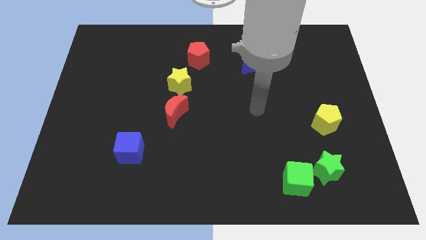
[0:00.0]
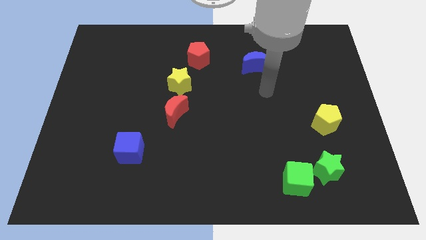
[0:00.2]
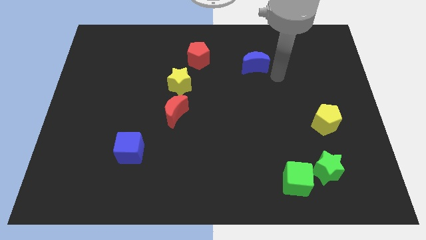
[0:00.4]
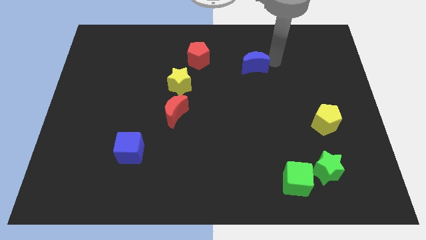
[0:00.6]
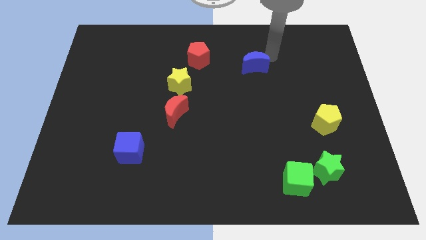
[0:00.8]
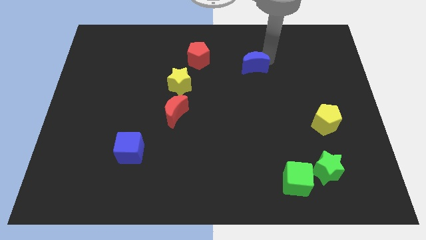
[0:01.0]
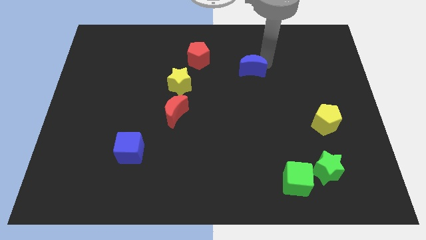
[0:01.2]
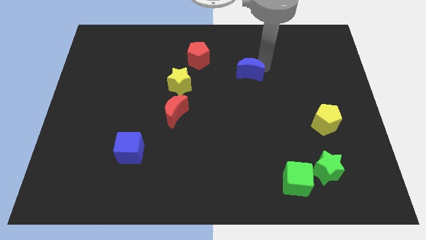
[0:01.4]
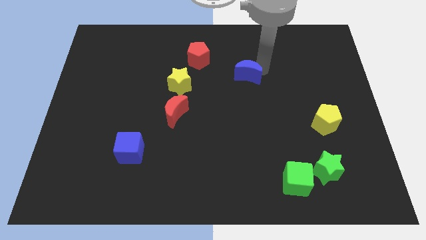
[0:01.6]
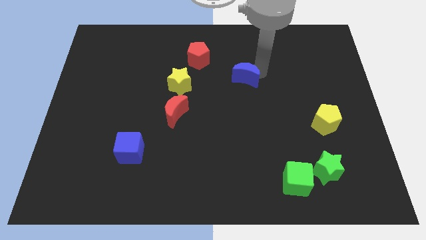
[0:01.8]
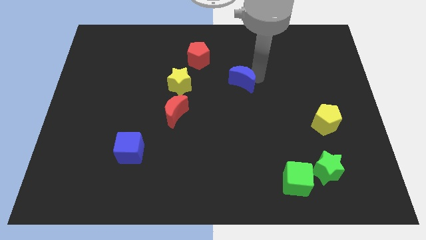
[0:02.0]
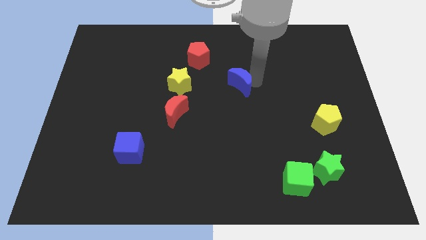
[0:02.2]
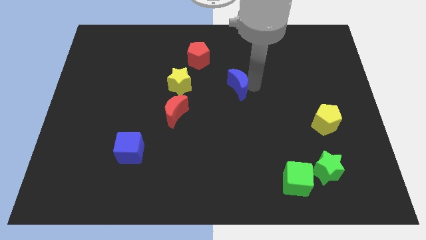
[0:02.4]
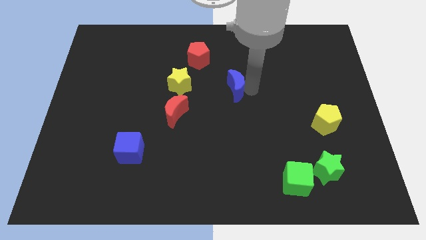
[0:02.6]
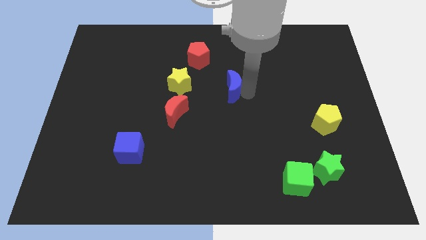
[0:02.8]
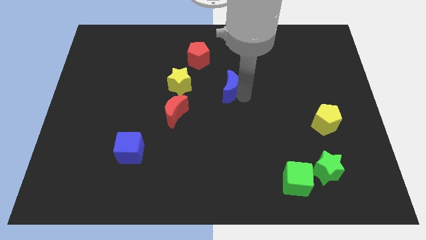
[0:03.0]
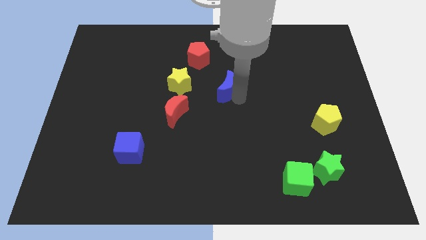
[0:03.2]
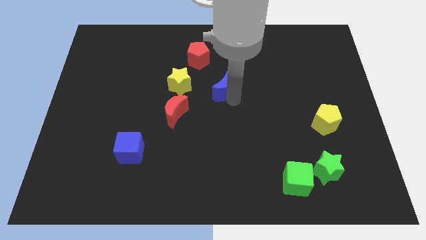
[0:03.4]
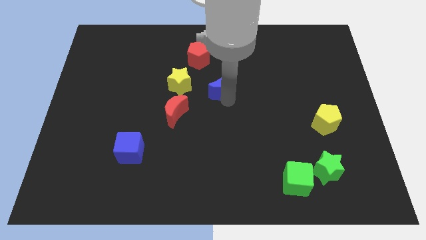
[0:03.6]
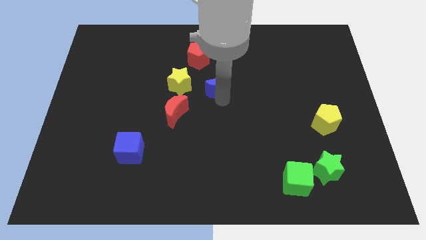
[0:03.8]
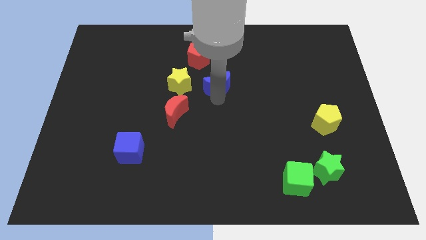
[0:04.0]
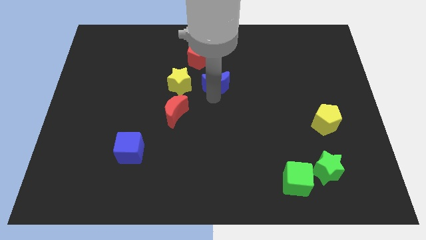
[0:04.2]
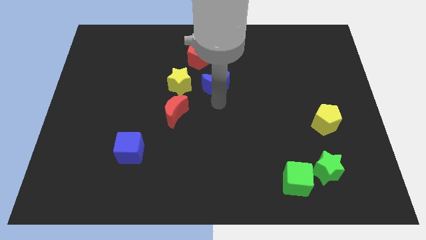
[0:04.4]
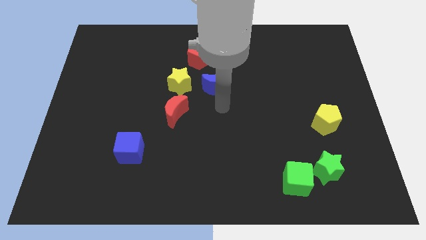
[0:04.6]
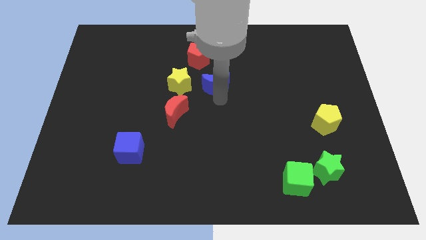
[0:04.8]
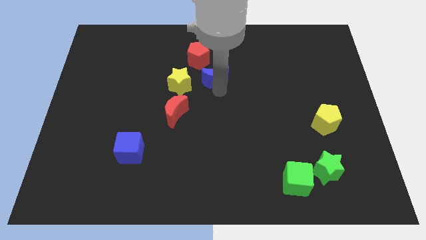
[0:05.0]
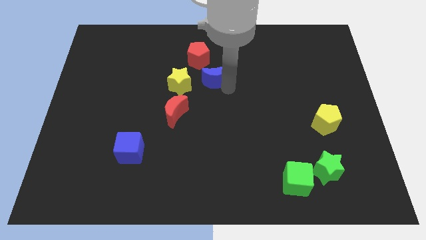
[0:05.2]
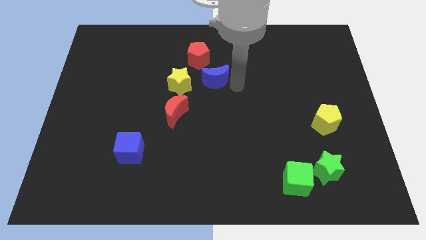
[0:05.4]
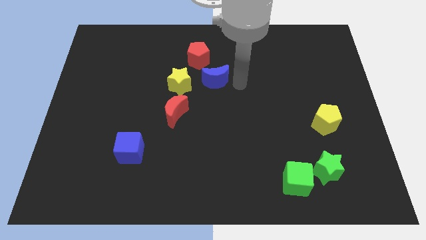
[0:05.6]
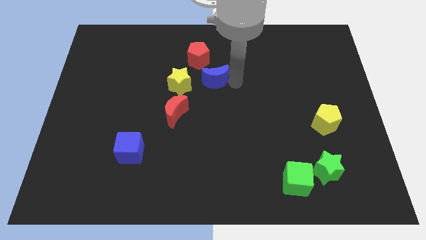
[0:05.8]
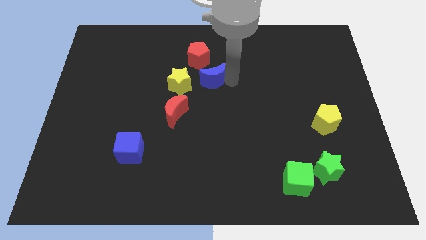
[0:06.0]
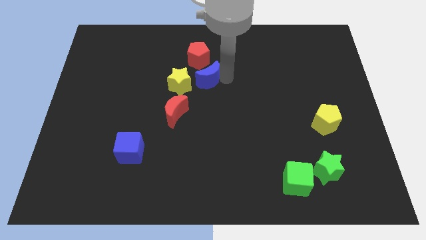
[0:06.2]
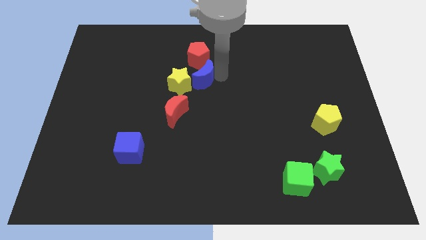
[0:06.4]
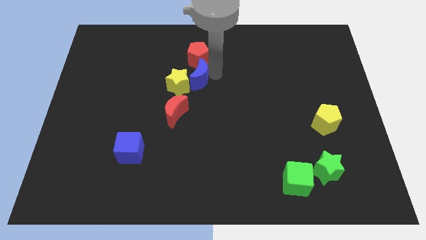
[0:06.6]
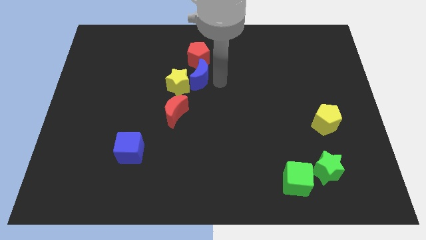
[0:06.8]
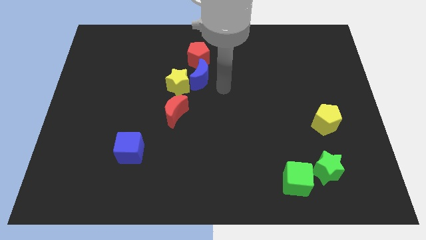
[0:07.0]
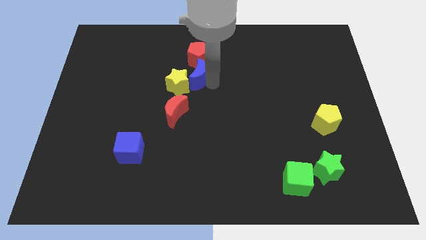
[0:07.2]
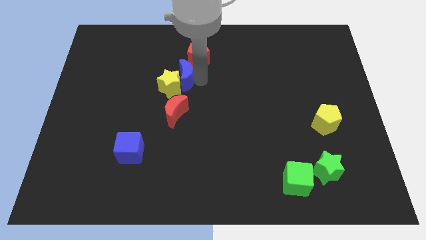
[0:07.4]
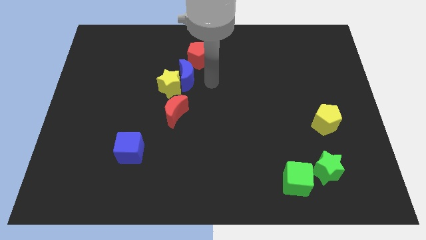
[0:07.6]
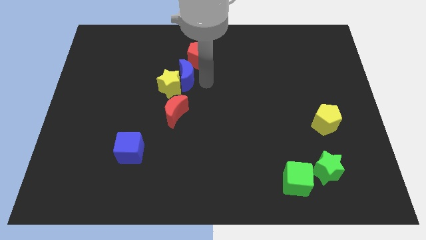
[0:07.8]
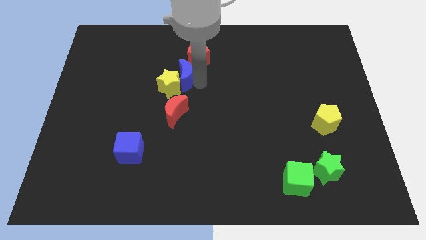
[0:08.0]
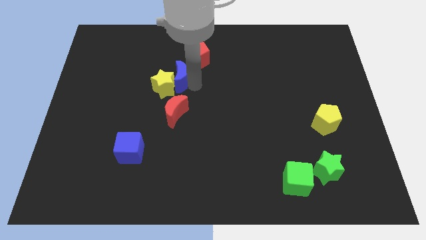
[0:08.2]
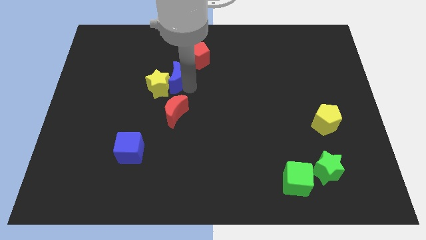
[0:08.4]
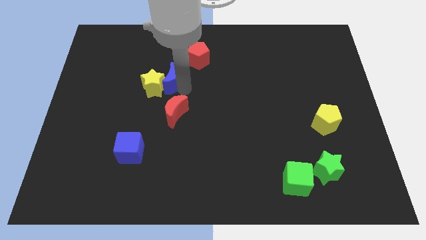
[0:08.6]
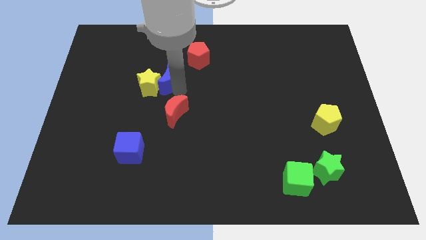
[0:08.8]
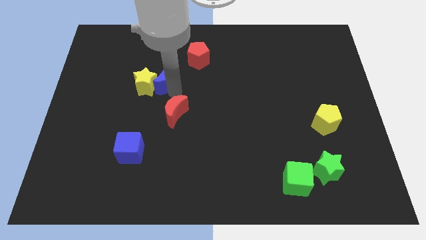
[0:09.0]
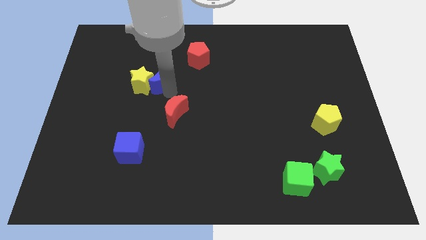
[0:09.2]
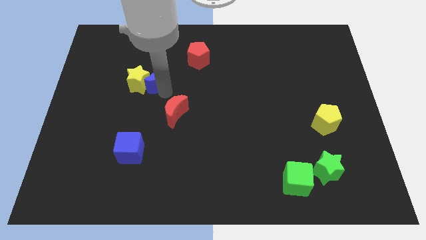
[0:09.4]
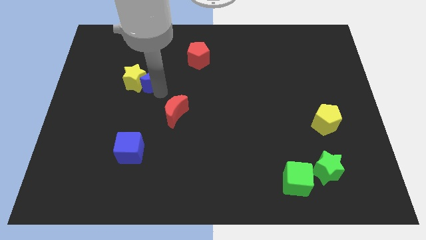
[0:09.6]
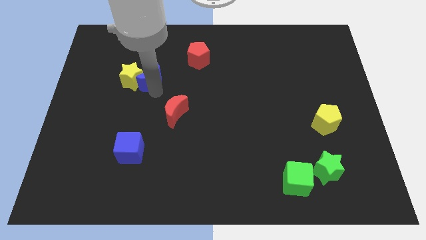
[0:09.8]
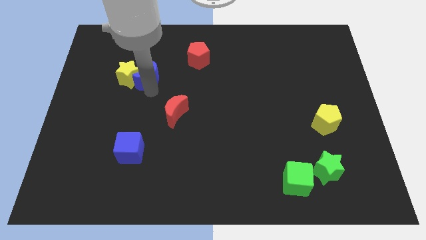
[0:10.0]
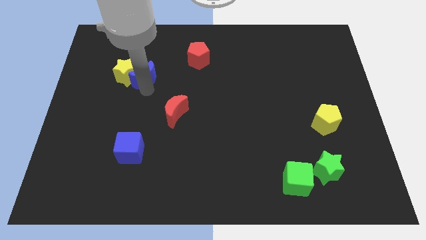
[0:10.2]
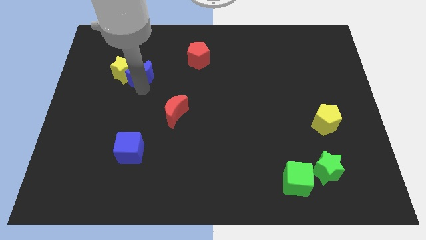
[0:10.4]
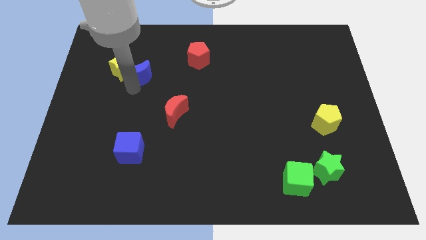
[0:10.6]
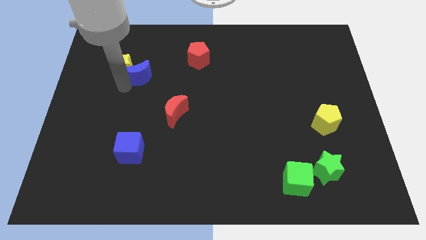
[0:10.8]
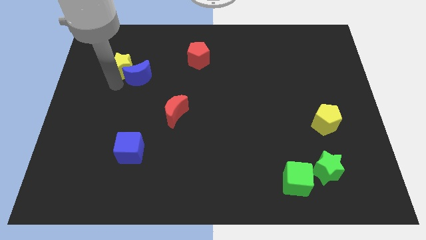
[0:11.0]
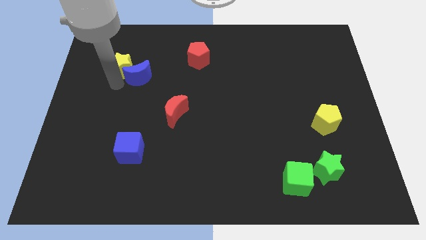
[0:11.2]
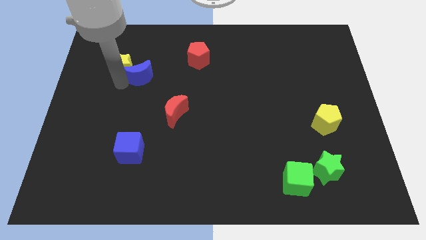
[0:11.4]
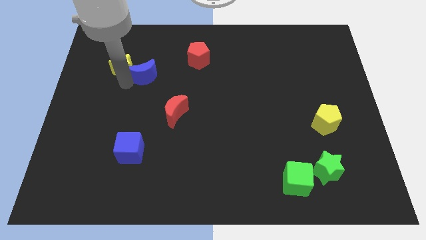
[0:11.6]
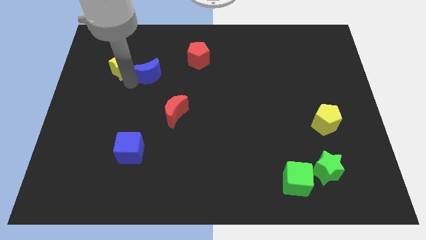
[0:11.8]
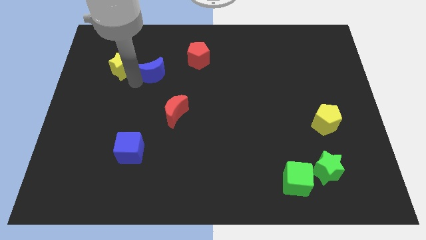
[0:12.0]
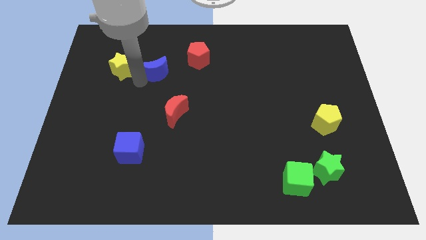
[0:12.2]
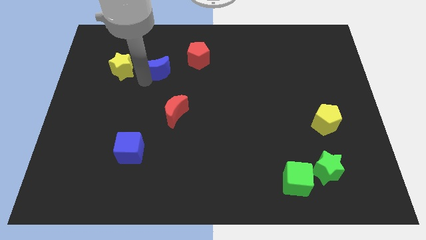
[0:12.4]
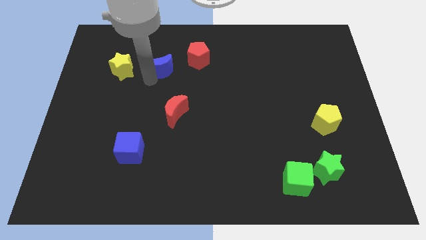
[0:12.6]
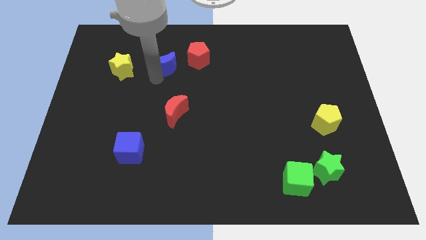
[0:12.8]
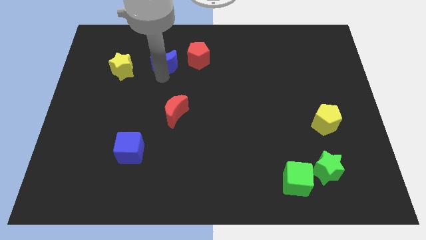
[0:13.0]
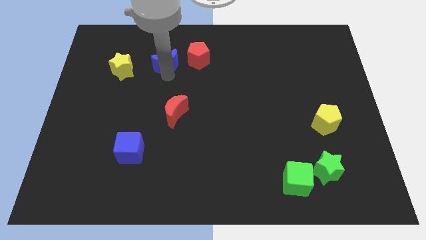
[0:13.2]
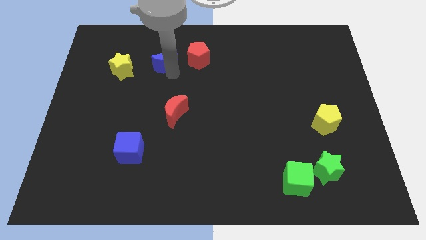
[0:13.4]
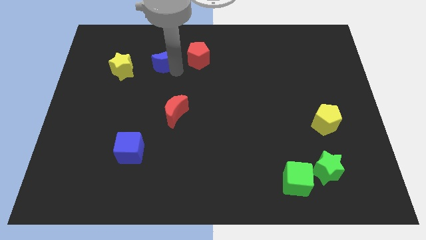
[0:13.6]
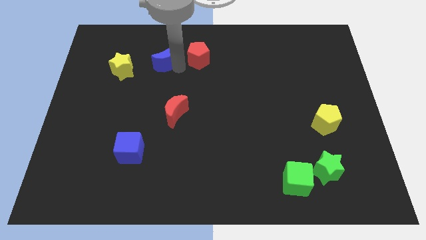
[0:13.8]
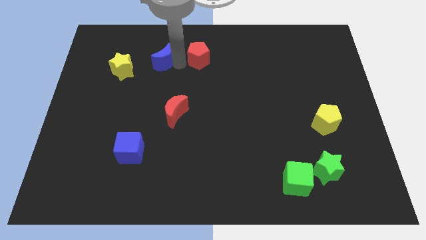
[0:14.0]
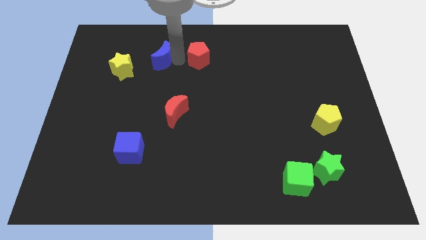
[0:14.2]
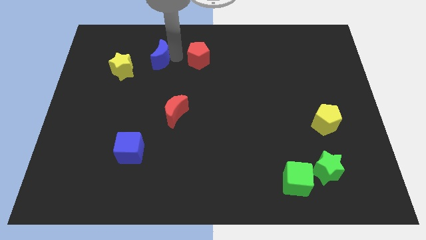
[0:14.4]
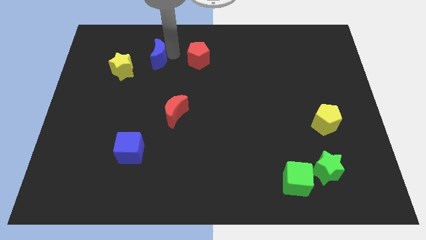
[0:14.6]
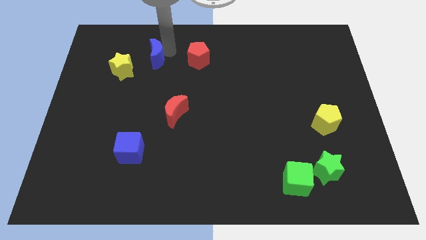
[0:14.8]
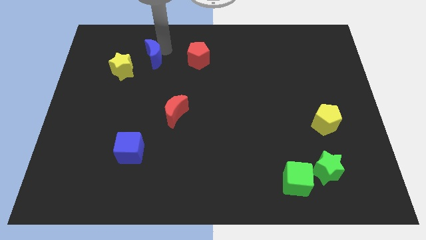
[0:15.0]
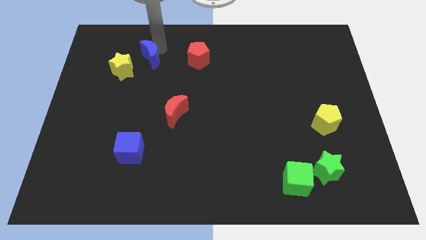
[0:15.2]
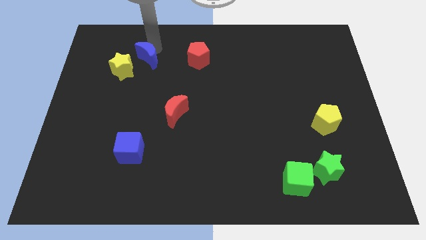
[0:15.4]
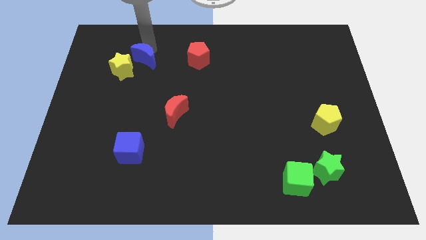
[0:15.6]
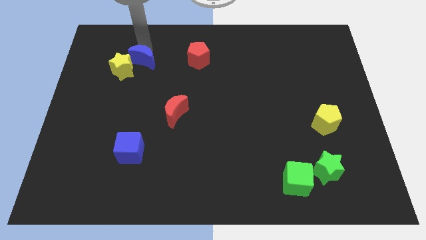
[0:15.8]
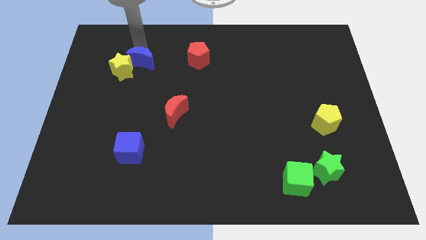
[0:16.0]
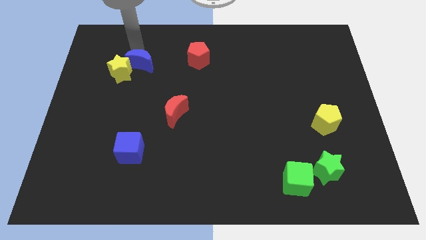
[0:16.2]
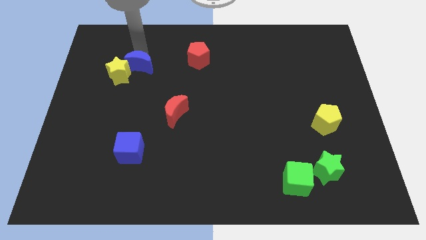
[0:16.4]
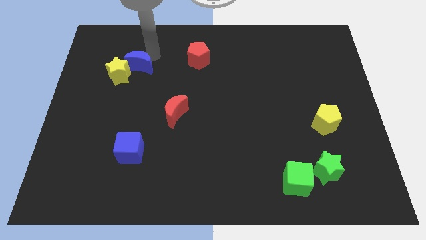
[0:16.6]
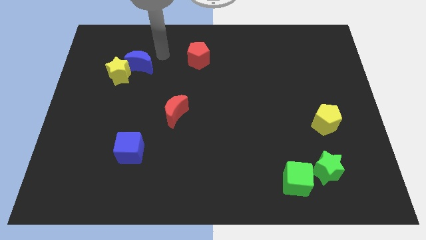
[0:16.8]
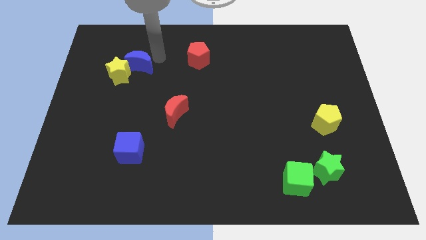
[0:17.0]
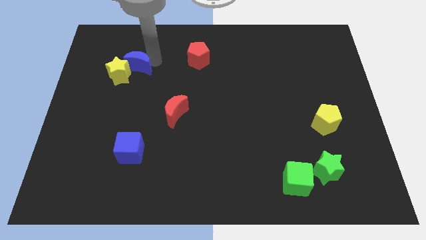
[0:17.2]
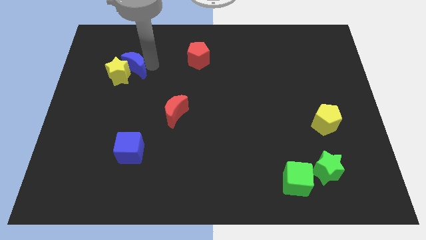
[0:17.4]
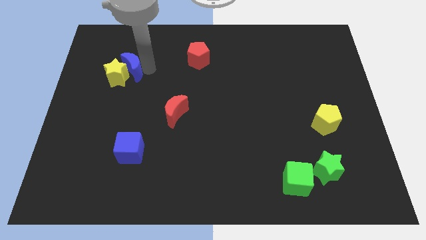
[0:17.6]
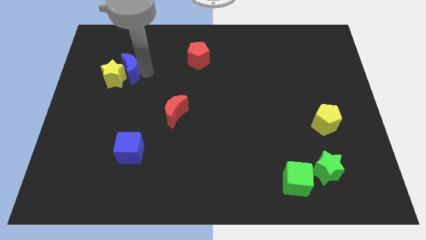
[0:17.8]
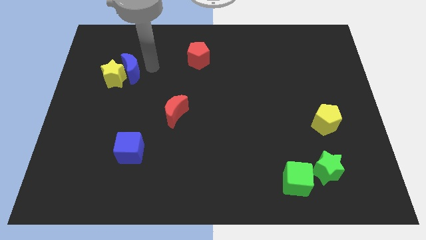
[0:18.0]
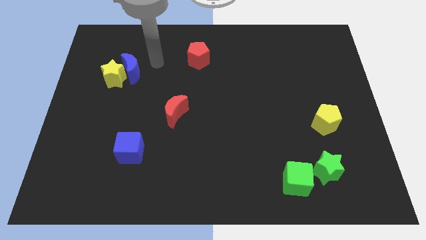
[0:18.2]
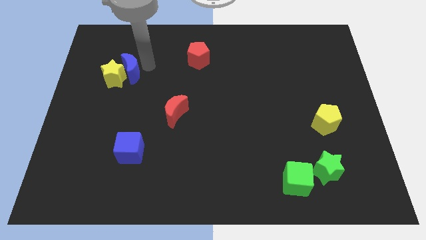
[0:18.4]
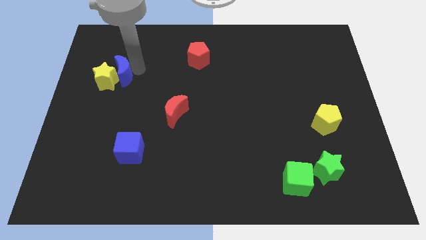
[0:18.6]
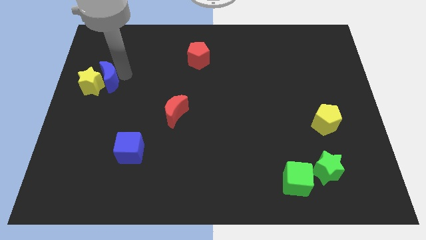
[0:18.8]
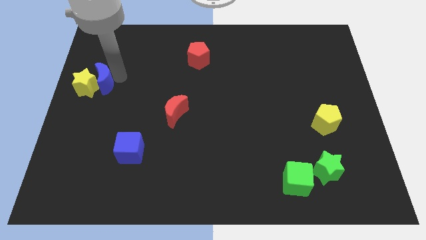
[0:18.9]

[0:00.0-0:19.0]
push the blue moon to the left side
